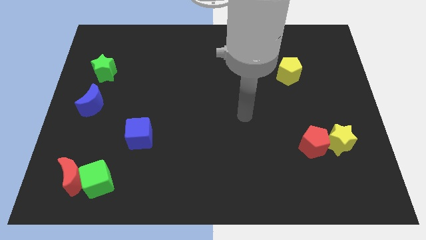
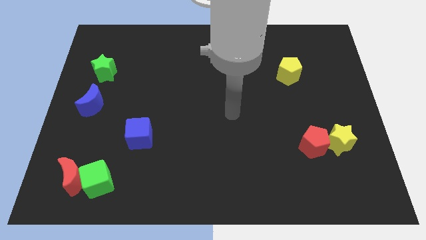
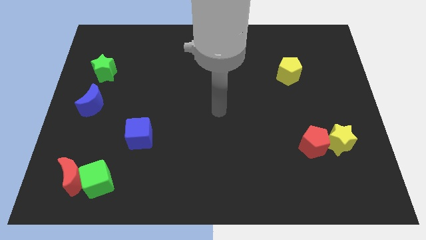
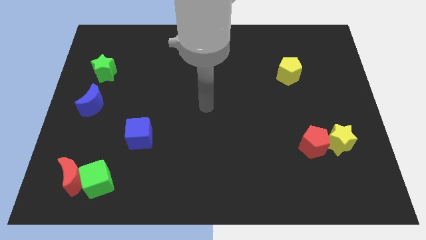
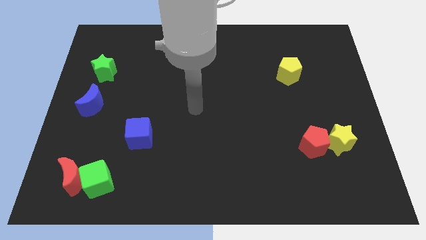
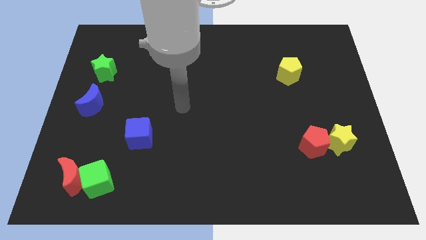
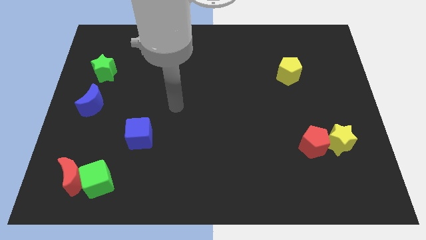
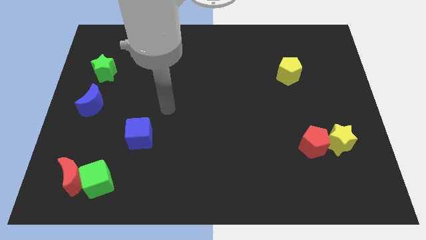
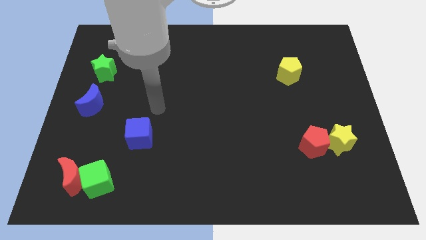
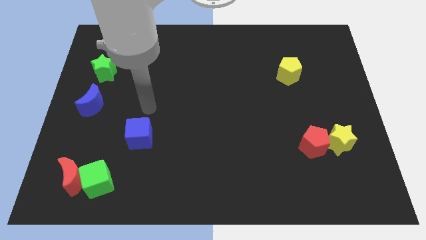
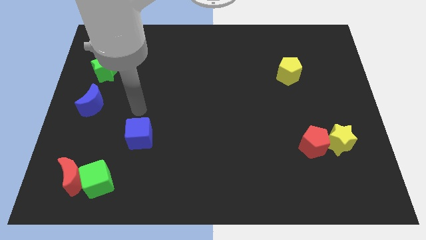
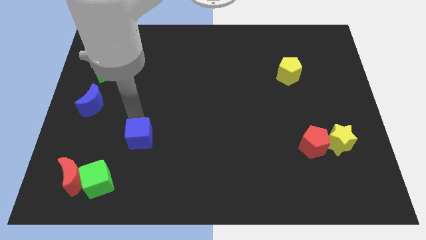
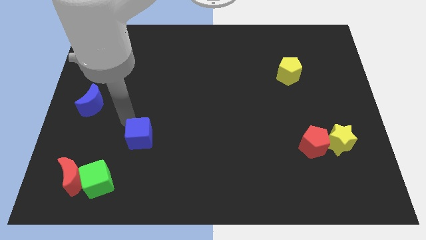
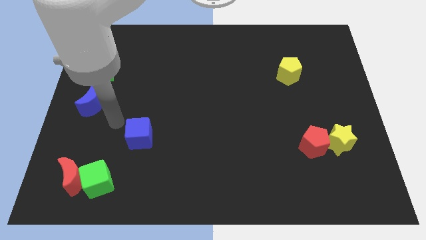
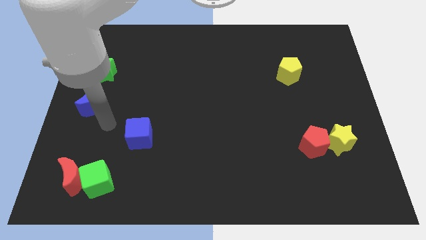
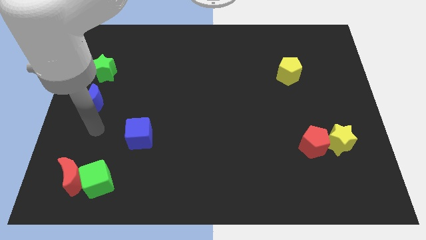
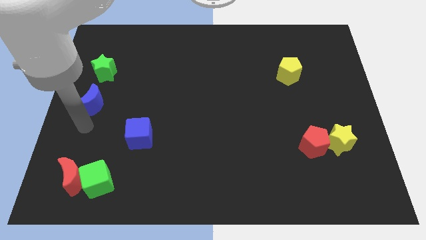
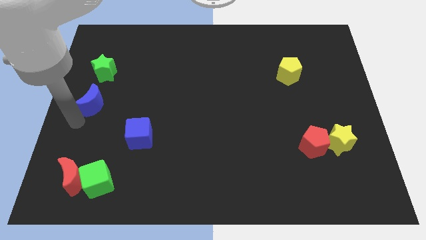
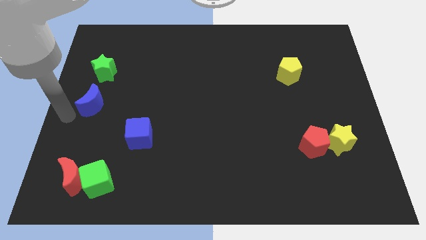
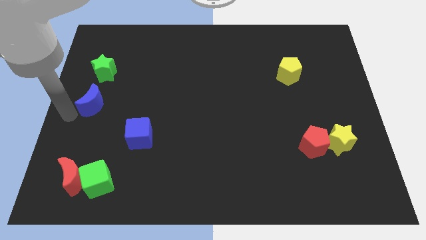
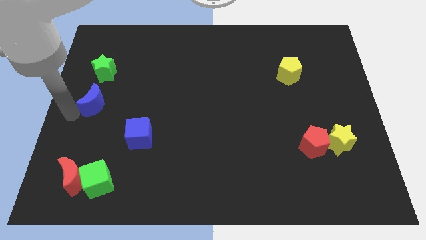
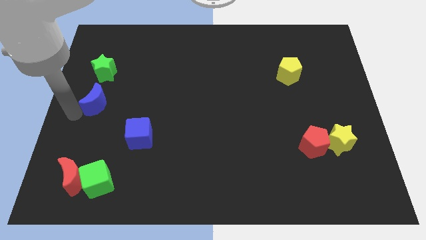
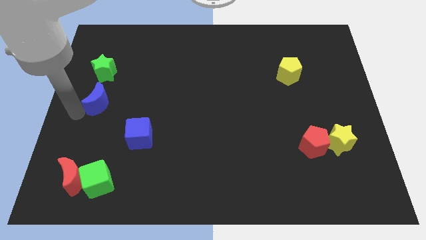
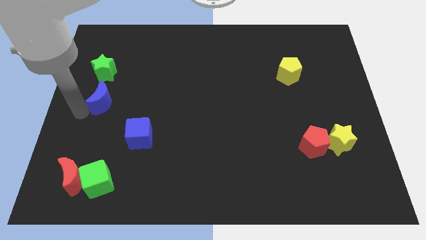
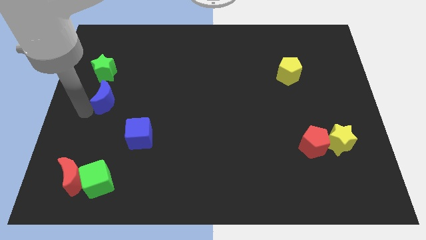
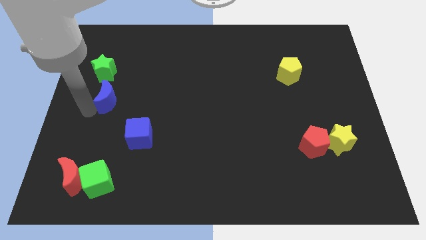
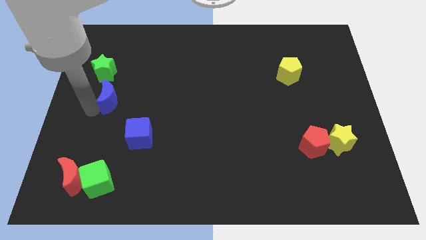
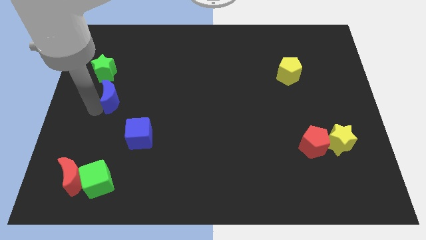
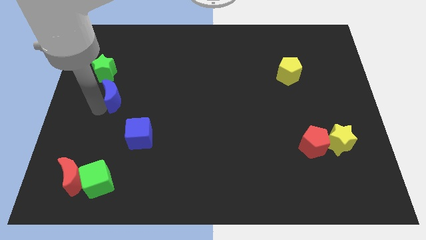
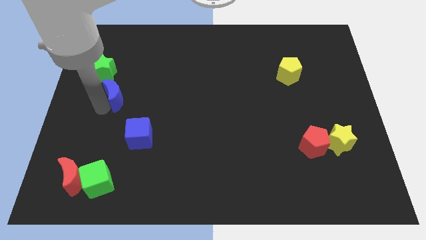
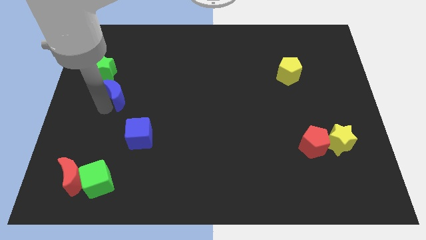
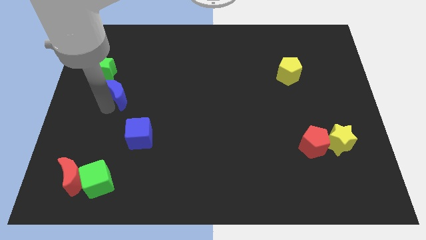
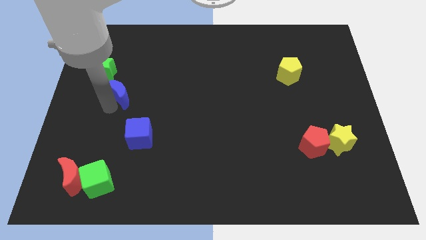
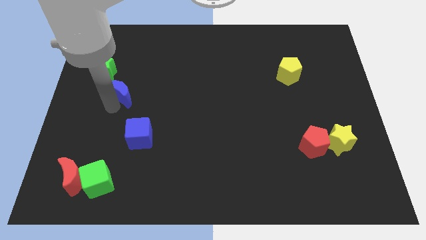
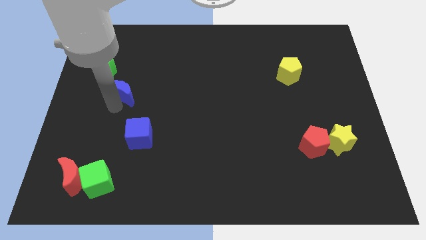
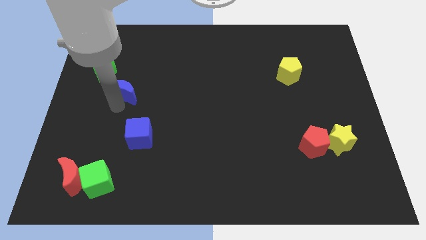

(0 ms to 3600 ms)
slightly push the blue moon diagonally upwards and right

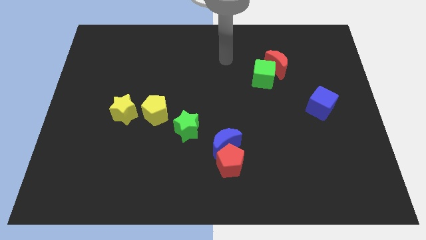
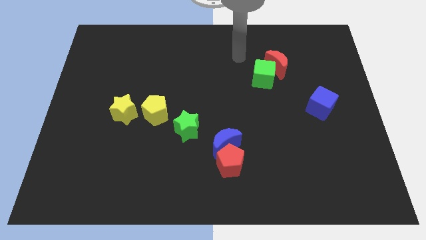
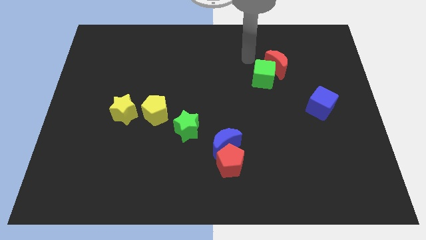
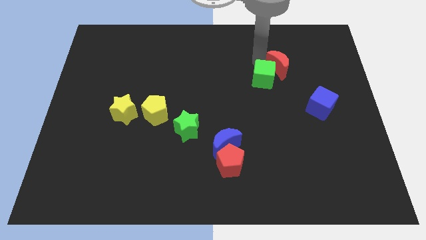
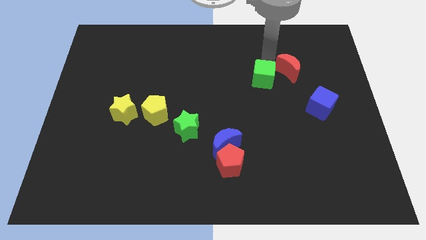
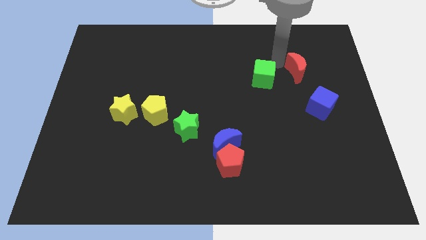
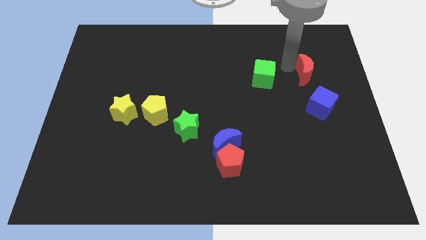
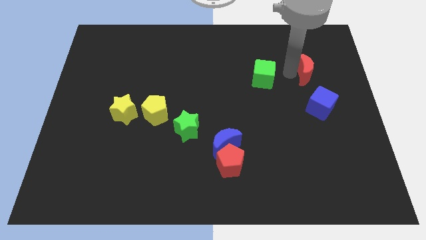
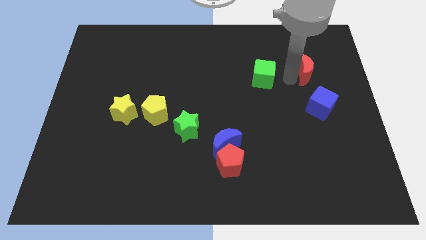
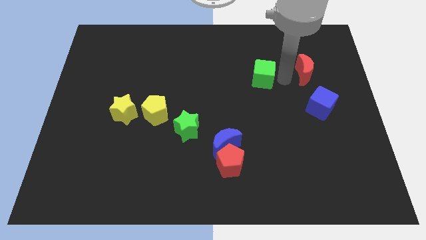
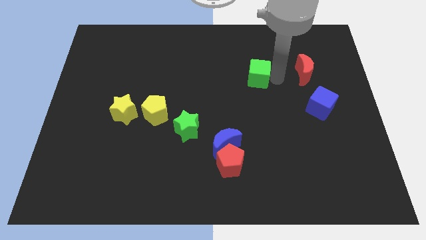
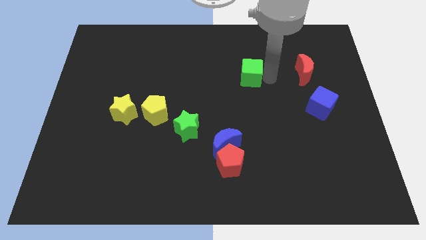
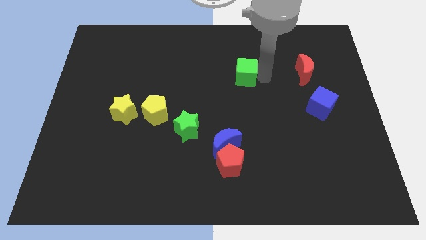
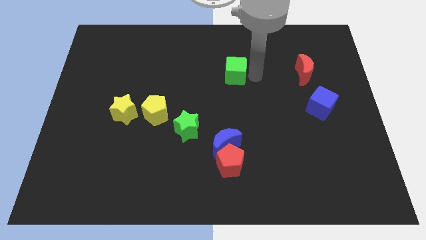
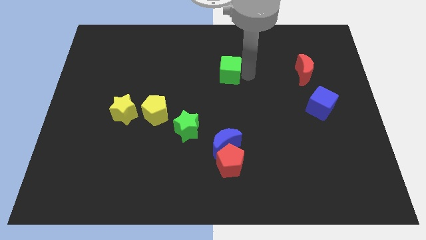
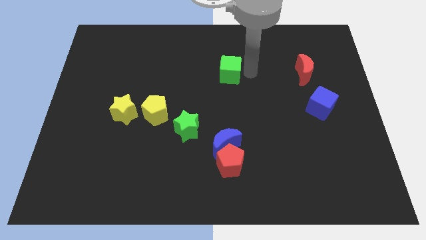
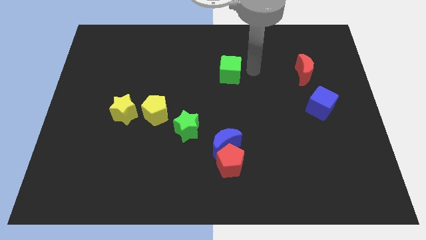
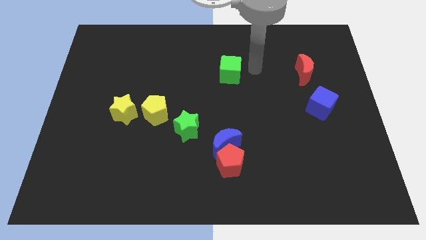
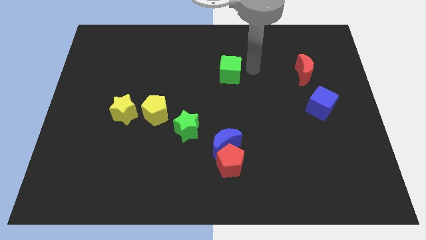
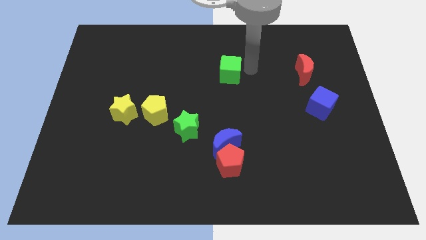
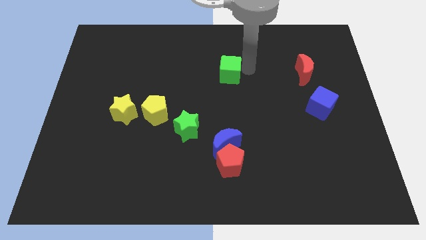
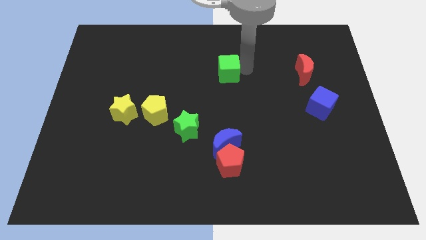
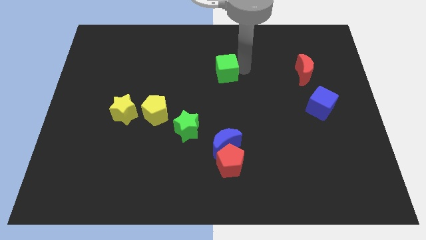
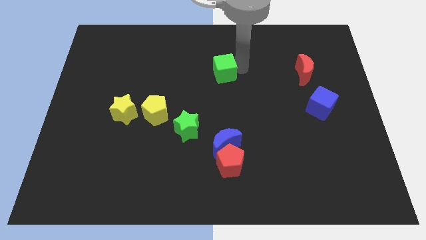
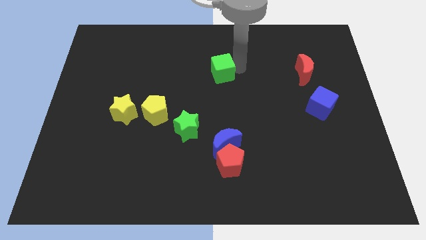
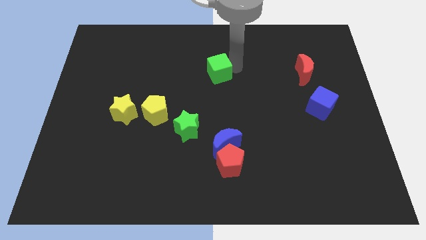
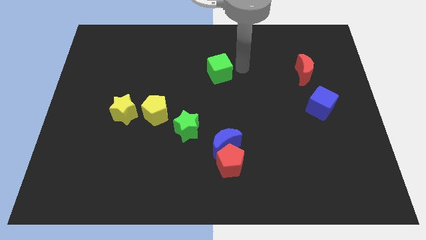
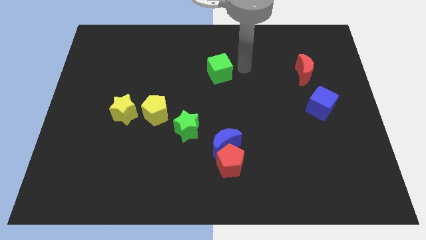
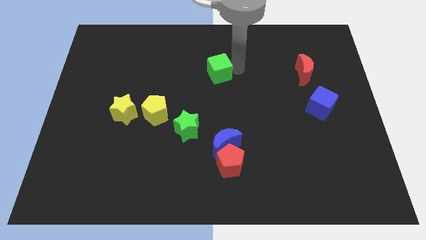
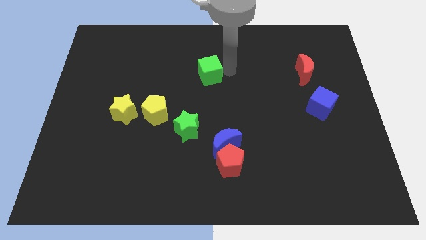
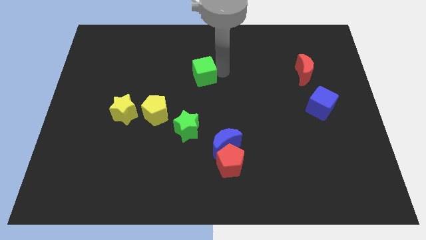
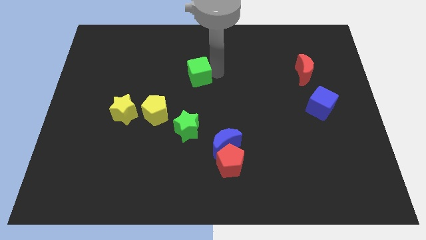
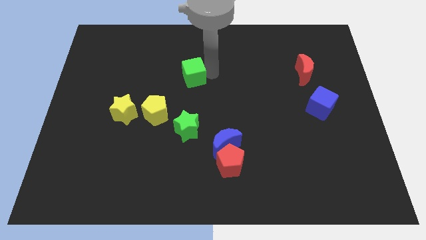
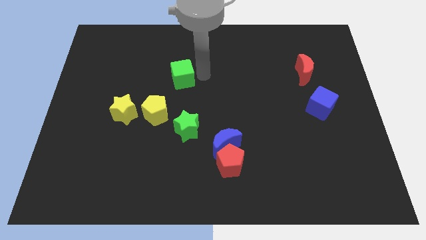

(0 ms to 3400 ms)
slide the green cube to the left

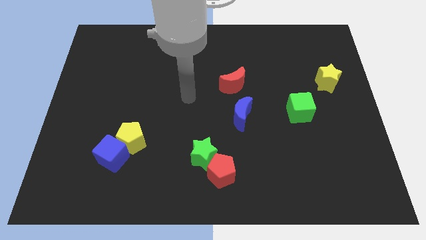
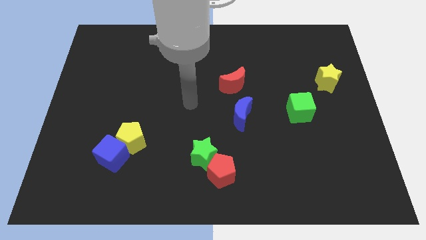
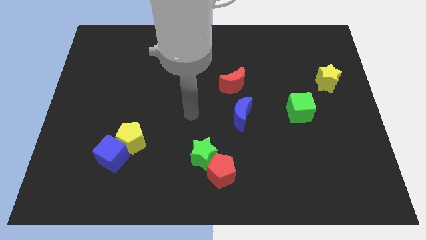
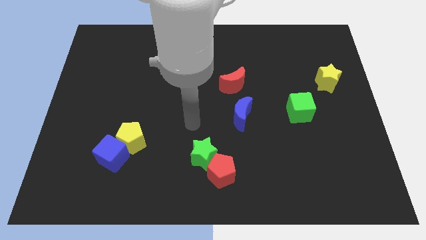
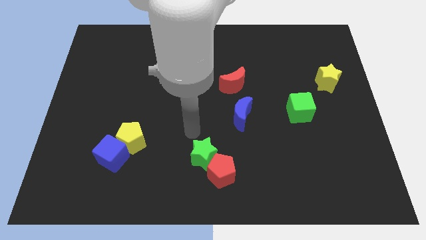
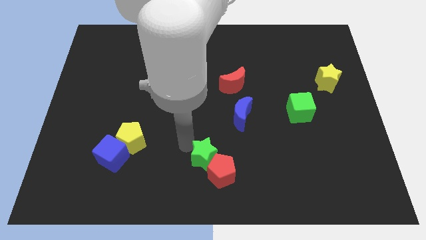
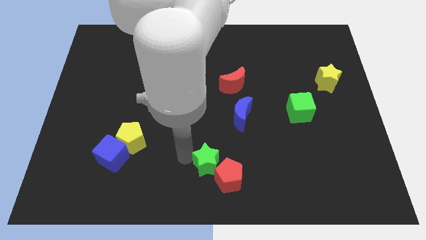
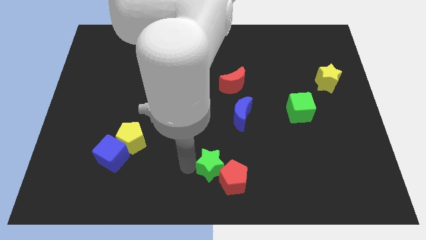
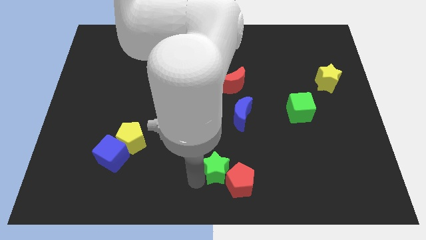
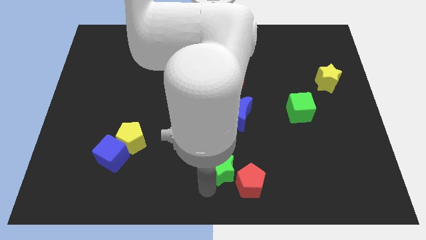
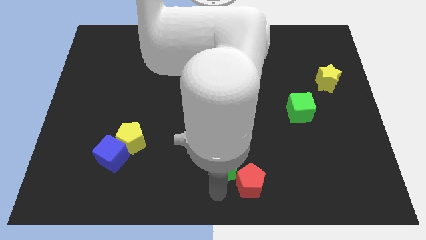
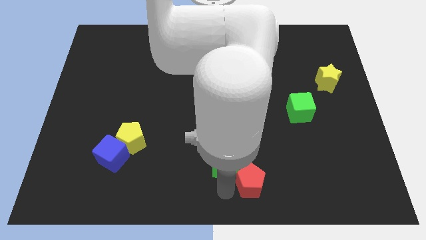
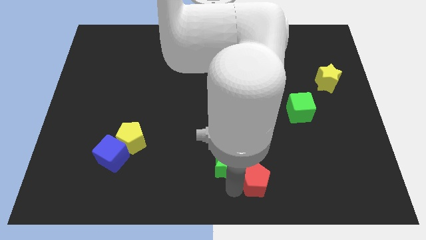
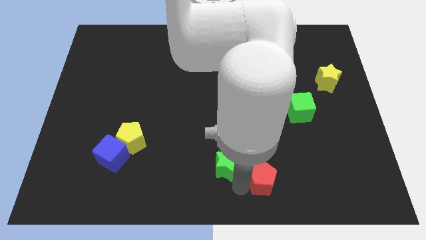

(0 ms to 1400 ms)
move the red pentagon slightly to the right
